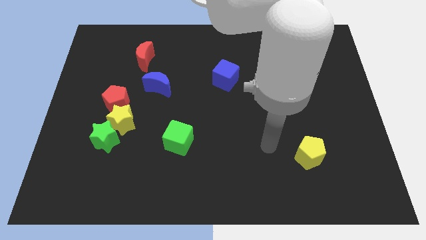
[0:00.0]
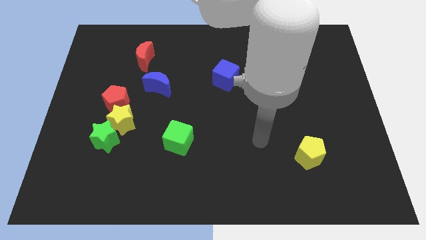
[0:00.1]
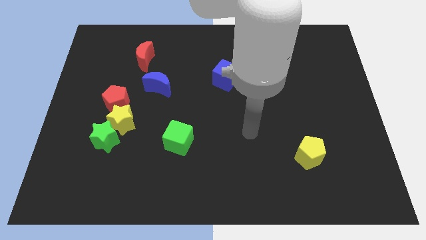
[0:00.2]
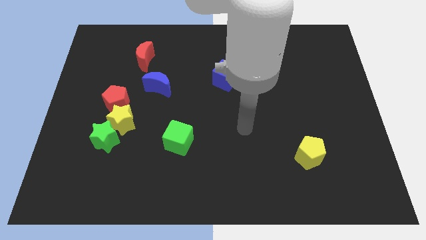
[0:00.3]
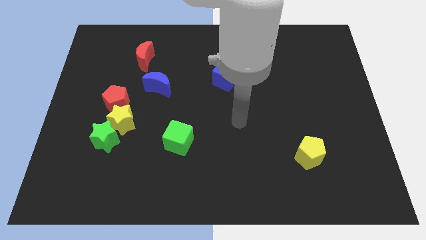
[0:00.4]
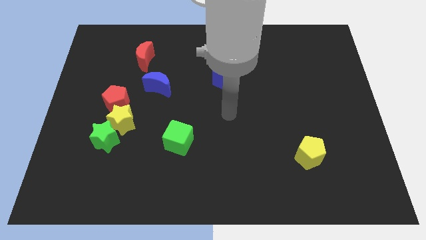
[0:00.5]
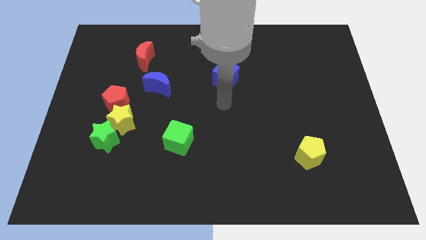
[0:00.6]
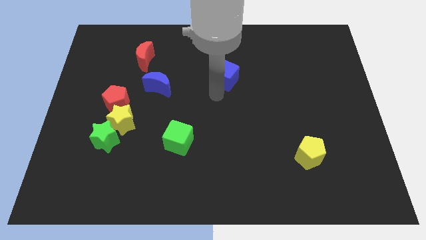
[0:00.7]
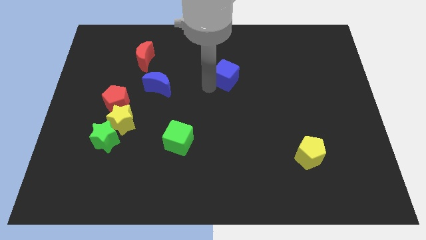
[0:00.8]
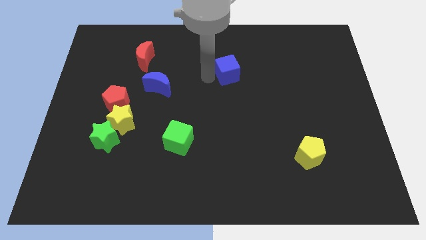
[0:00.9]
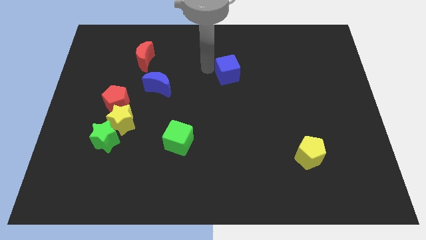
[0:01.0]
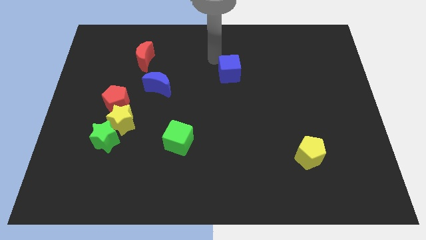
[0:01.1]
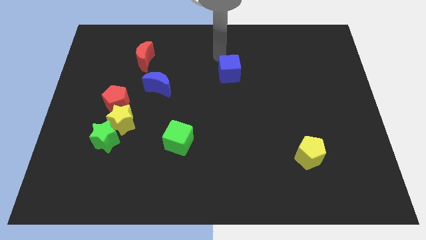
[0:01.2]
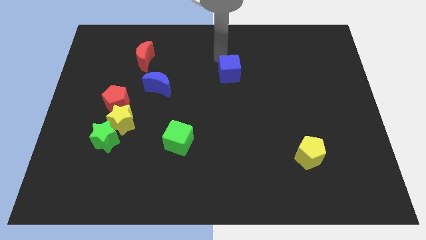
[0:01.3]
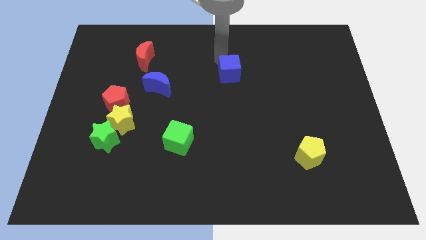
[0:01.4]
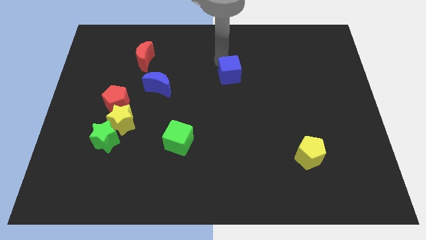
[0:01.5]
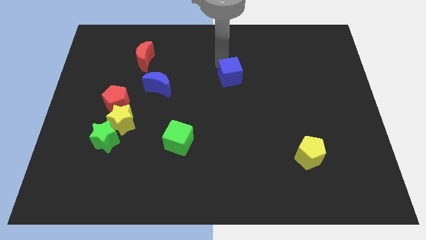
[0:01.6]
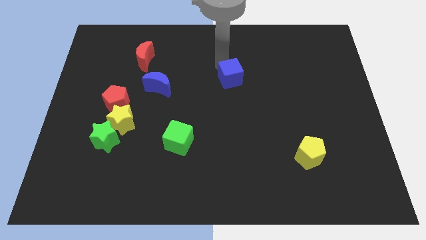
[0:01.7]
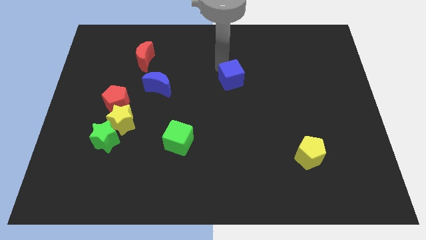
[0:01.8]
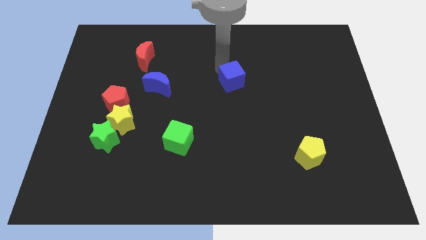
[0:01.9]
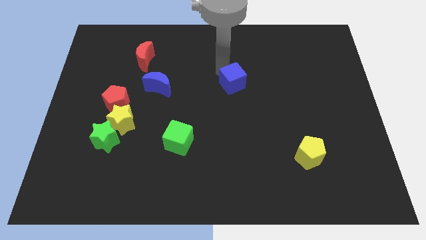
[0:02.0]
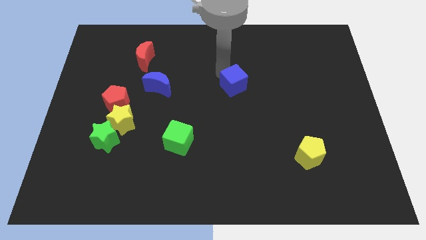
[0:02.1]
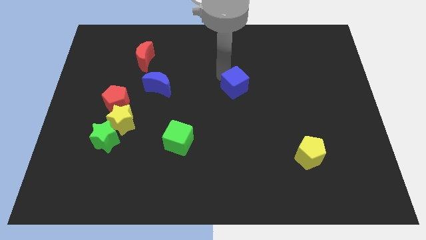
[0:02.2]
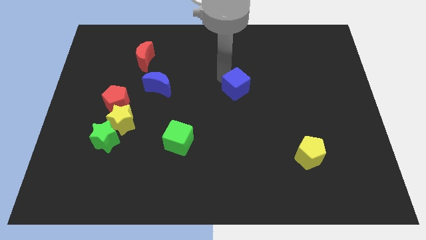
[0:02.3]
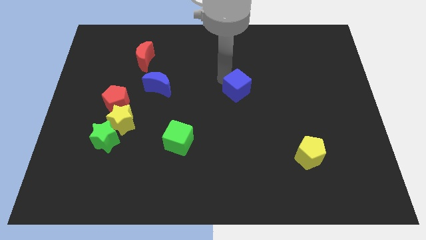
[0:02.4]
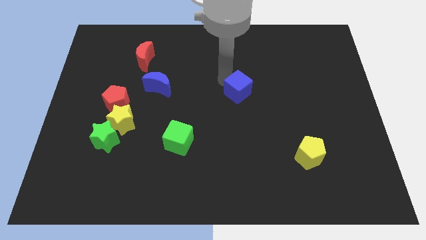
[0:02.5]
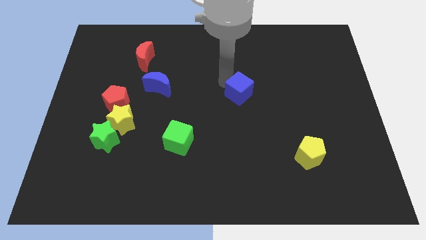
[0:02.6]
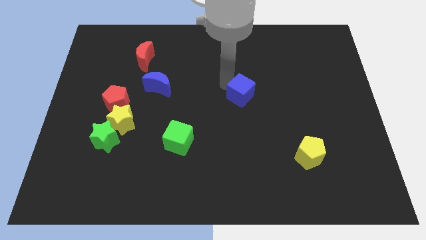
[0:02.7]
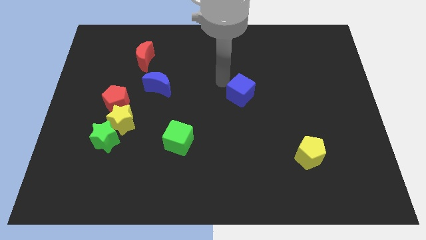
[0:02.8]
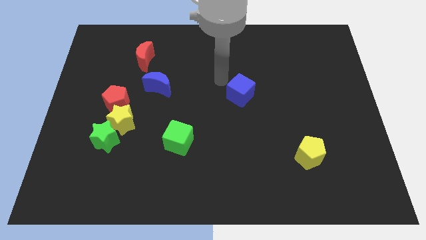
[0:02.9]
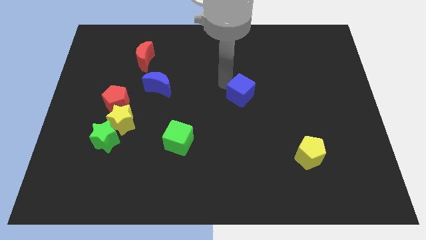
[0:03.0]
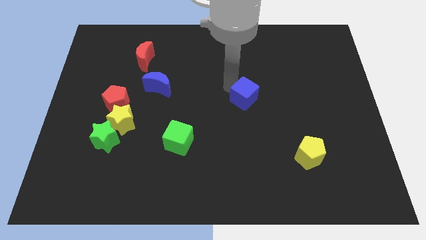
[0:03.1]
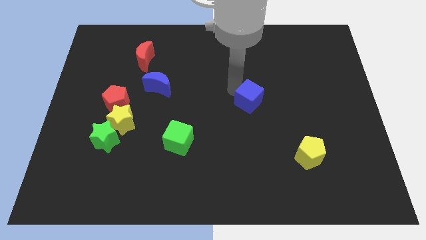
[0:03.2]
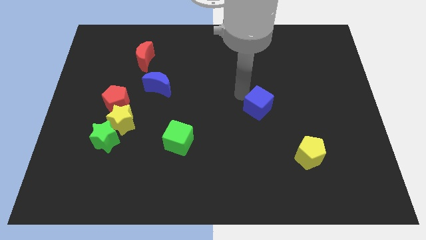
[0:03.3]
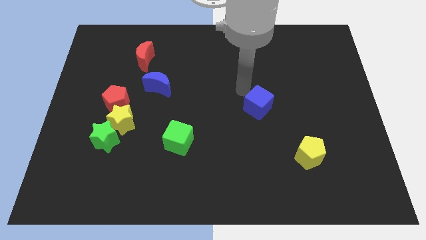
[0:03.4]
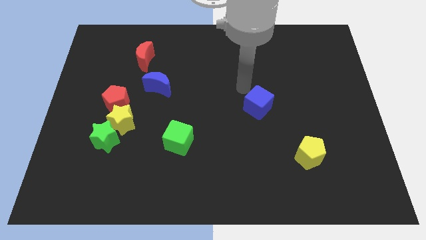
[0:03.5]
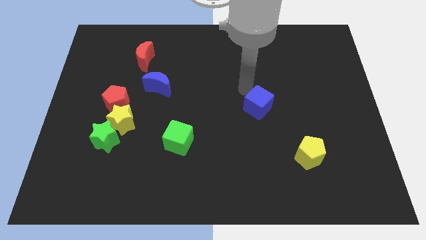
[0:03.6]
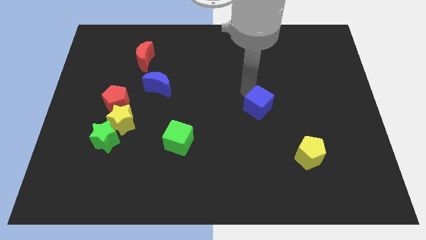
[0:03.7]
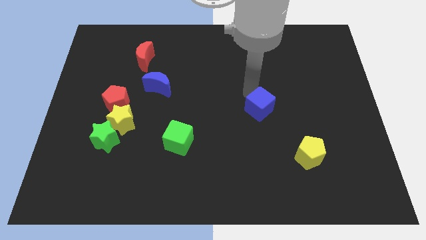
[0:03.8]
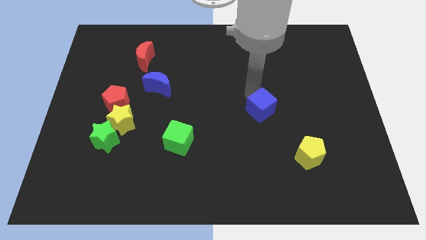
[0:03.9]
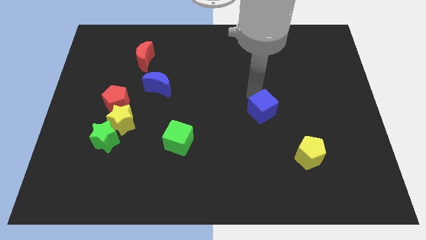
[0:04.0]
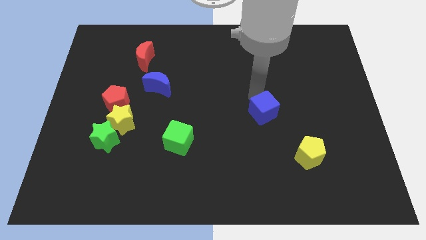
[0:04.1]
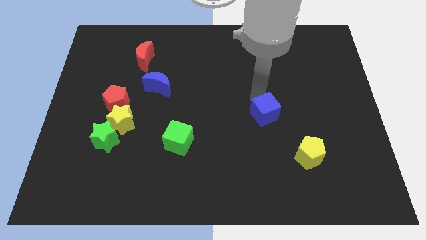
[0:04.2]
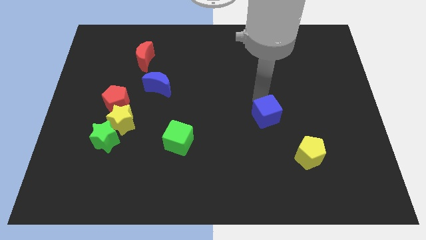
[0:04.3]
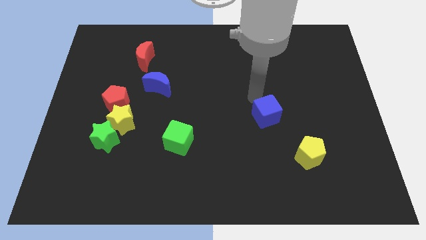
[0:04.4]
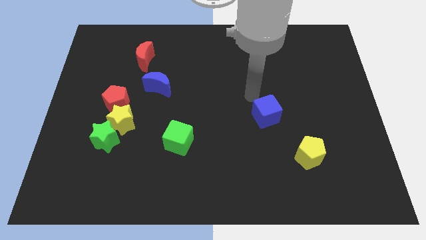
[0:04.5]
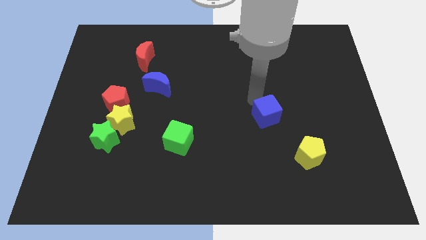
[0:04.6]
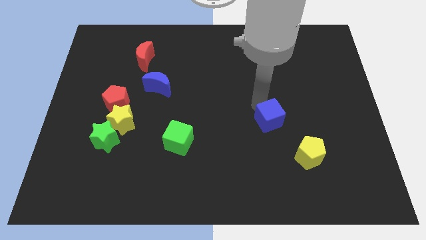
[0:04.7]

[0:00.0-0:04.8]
push the blue cube to the top left of the yellow pentagon

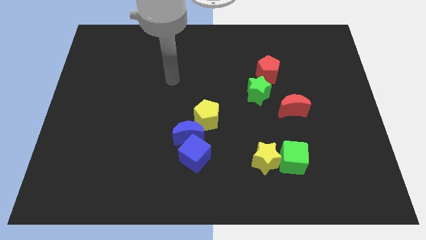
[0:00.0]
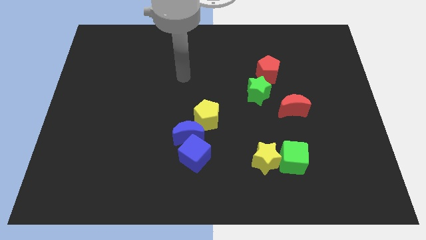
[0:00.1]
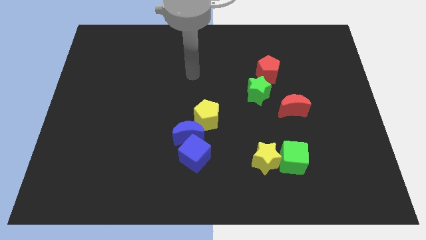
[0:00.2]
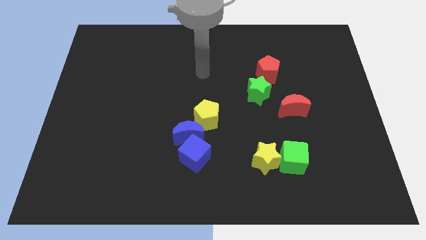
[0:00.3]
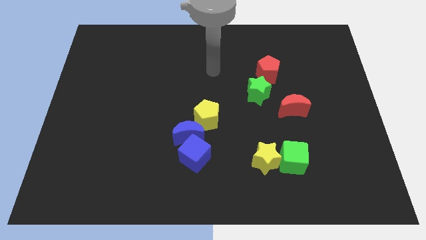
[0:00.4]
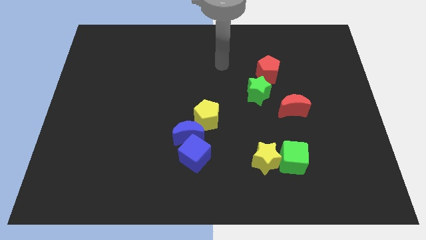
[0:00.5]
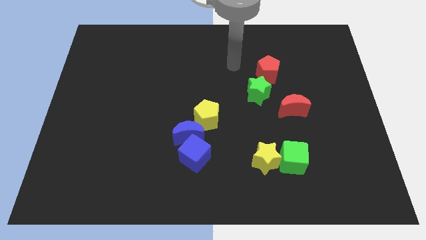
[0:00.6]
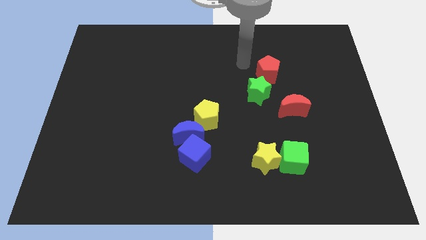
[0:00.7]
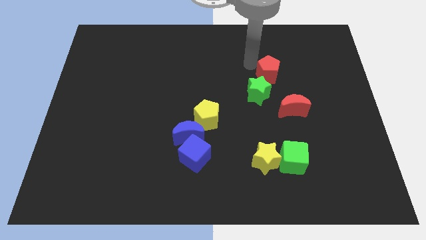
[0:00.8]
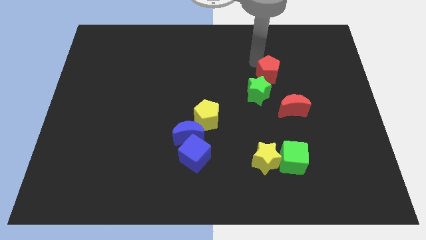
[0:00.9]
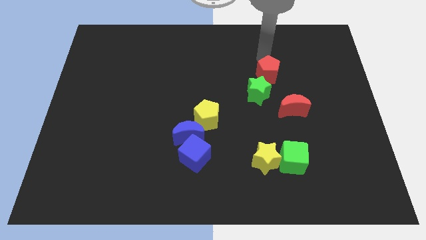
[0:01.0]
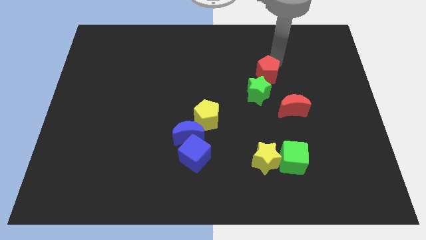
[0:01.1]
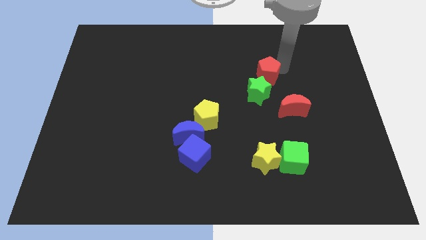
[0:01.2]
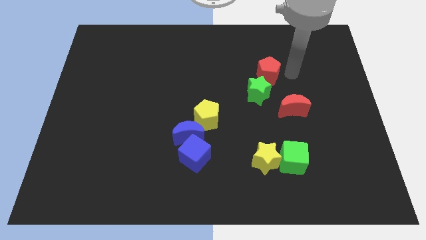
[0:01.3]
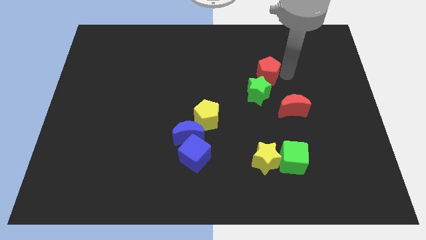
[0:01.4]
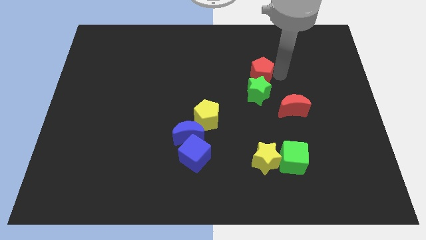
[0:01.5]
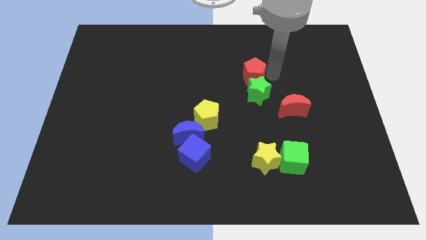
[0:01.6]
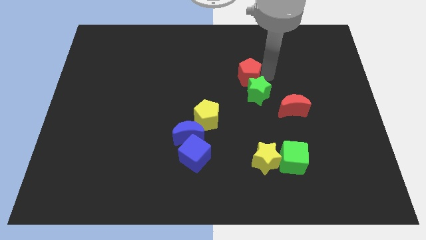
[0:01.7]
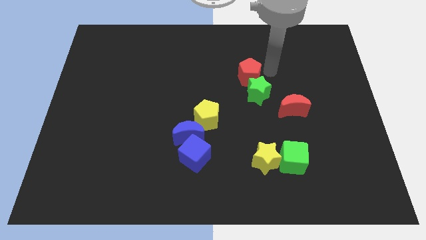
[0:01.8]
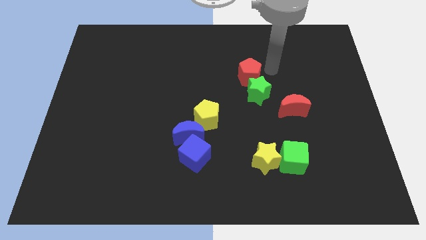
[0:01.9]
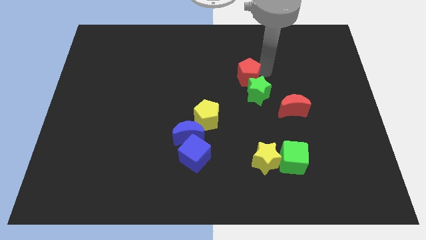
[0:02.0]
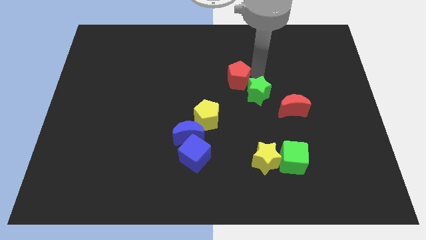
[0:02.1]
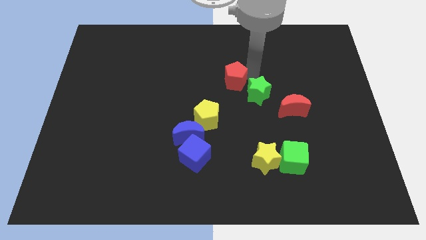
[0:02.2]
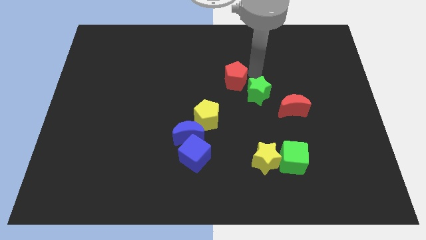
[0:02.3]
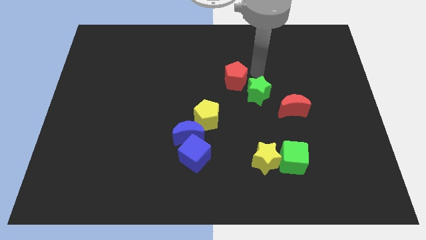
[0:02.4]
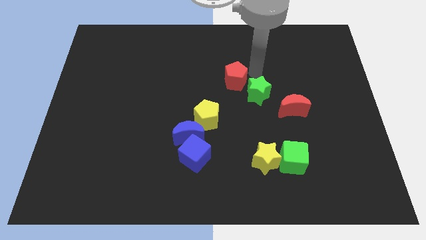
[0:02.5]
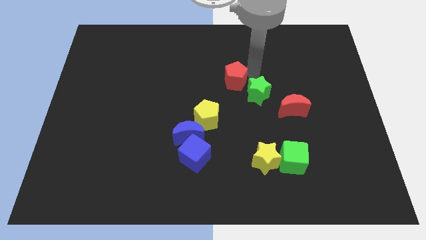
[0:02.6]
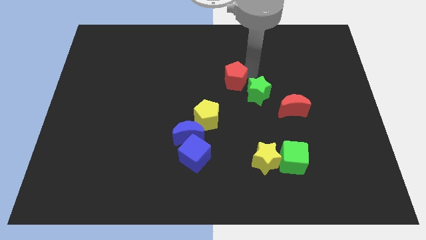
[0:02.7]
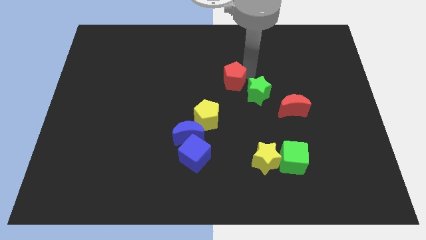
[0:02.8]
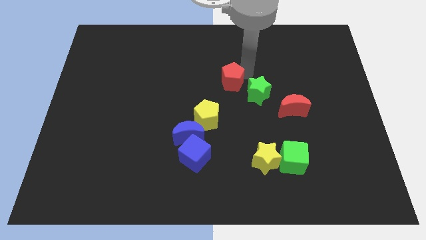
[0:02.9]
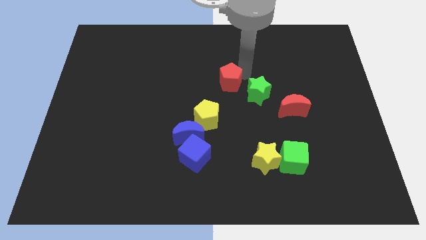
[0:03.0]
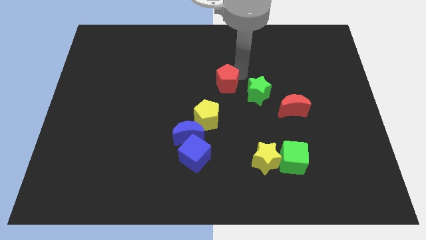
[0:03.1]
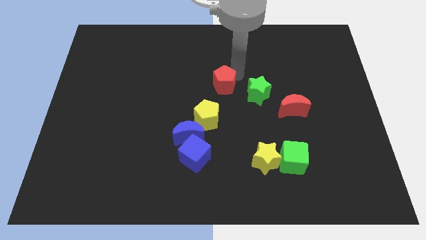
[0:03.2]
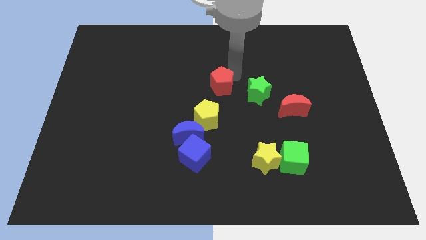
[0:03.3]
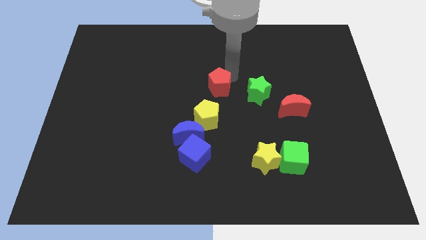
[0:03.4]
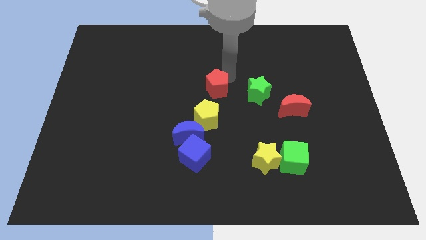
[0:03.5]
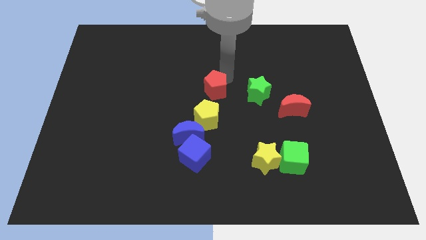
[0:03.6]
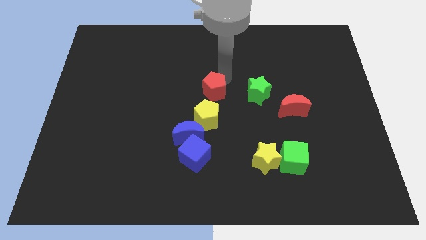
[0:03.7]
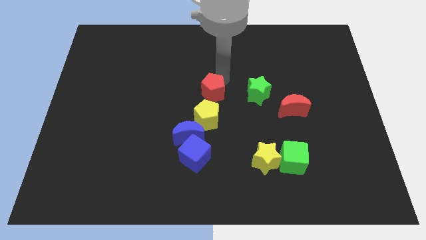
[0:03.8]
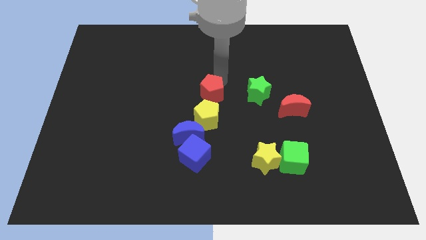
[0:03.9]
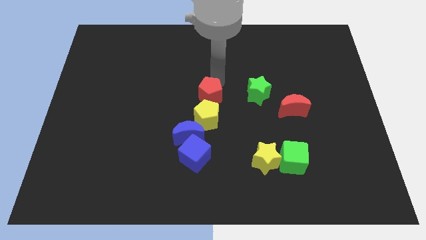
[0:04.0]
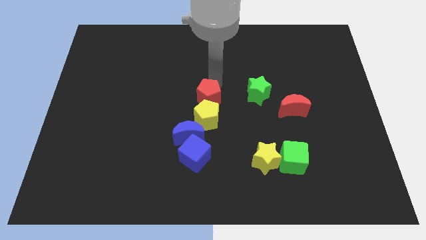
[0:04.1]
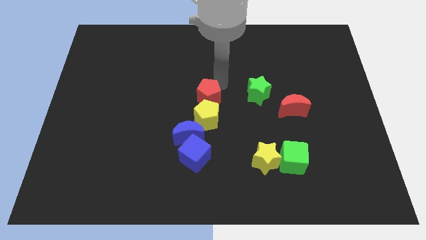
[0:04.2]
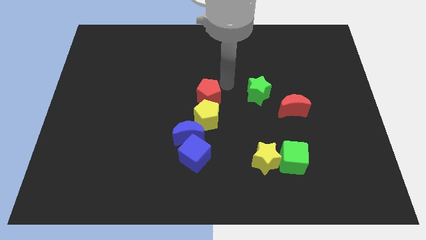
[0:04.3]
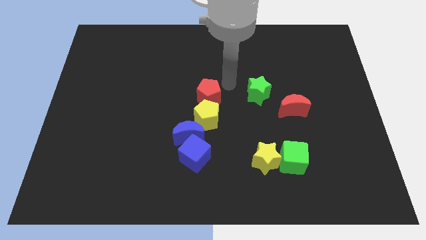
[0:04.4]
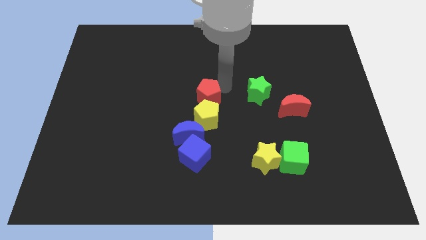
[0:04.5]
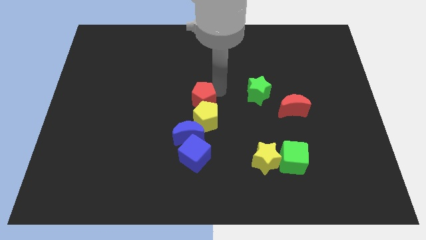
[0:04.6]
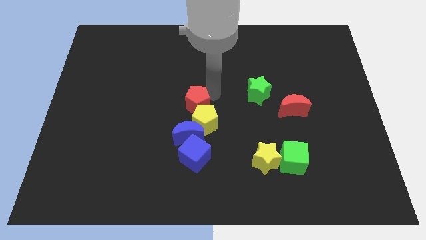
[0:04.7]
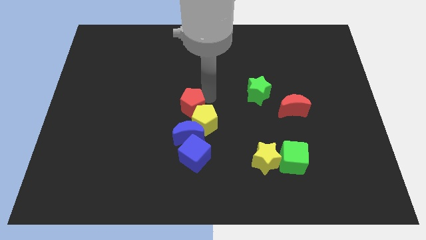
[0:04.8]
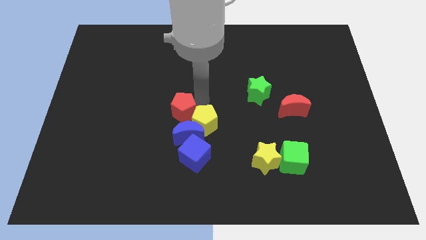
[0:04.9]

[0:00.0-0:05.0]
slide the red pentagon just left of the yellow pentagon
